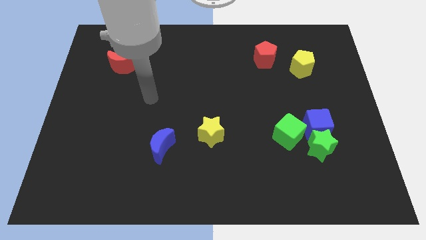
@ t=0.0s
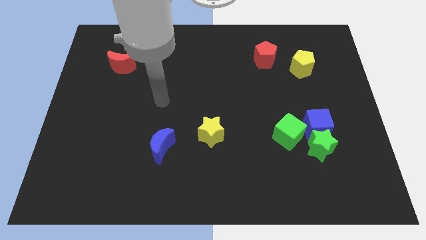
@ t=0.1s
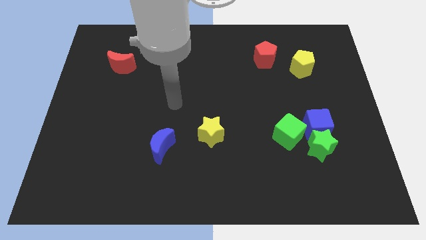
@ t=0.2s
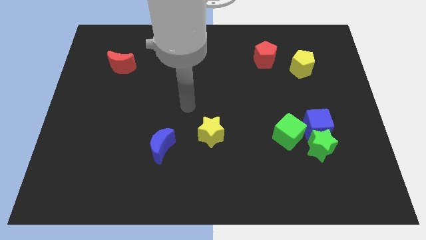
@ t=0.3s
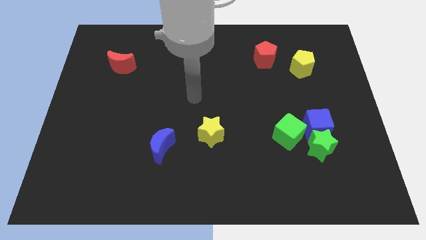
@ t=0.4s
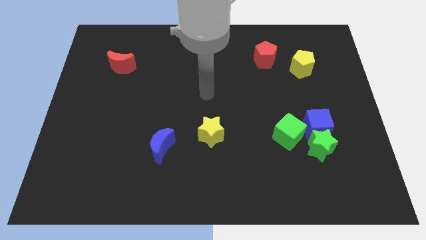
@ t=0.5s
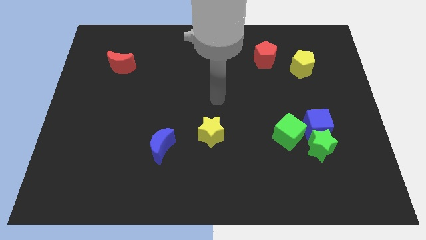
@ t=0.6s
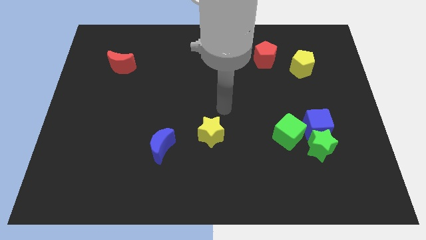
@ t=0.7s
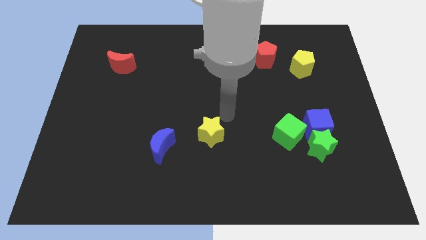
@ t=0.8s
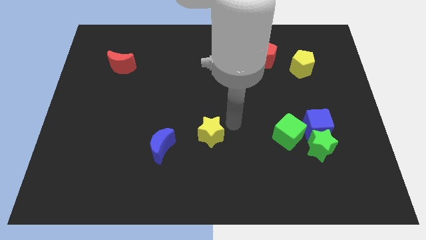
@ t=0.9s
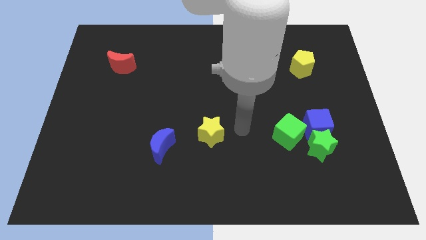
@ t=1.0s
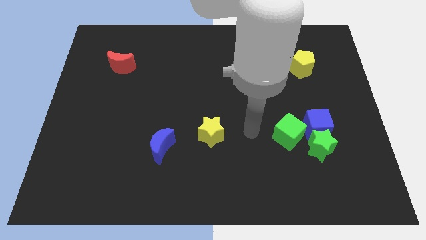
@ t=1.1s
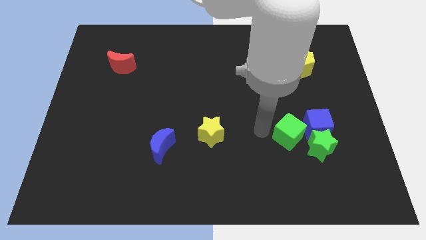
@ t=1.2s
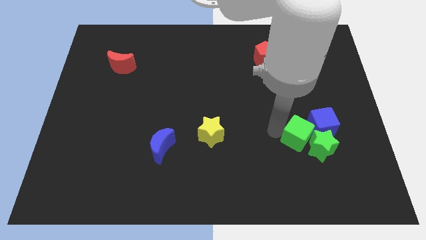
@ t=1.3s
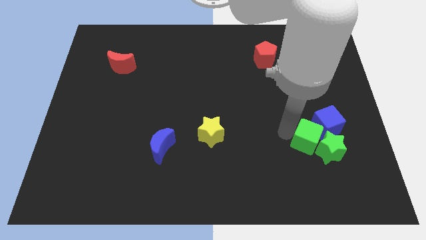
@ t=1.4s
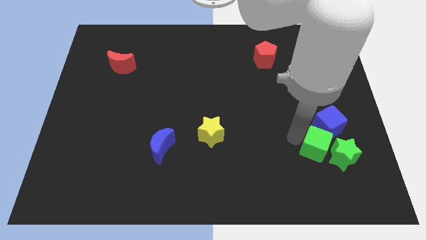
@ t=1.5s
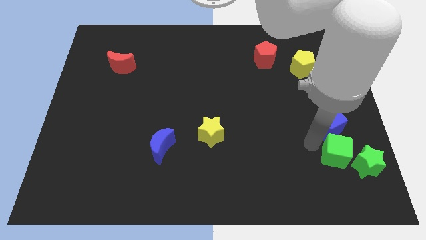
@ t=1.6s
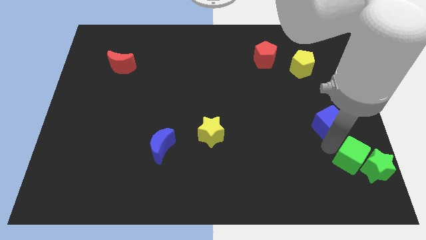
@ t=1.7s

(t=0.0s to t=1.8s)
move the blue cube away from the green star and green cube

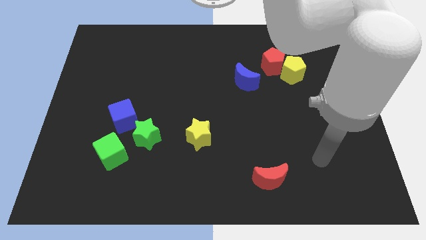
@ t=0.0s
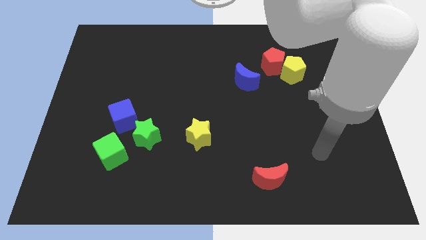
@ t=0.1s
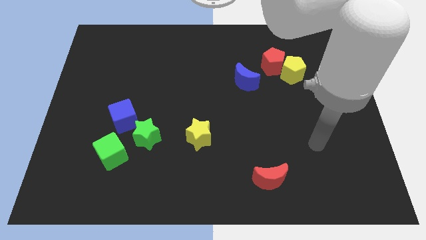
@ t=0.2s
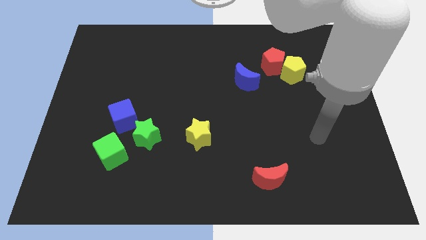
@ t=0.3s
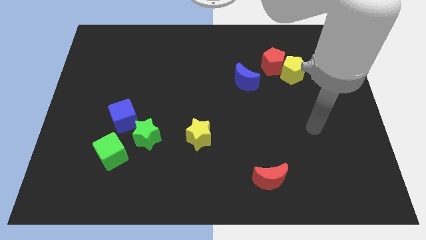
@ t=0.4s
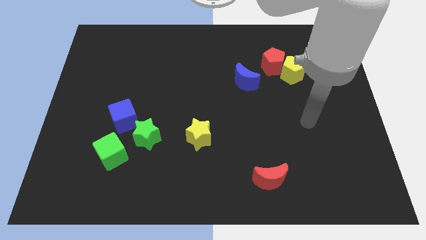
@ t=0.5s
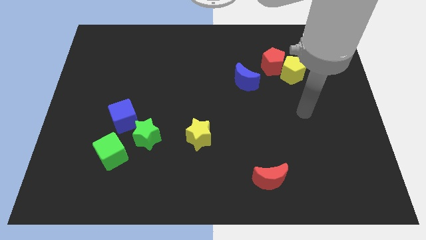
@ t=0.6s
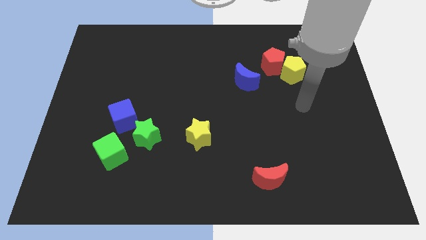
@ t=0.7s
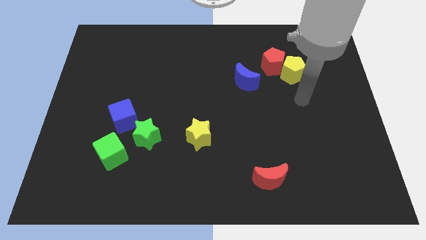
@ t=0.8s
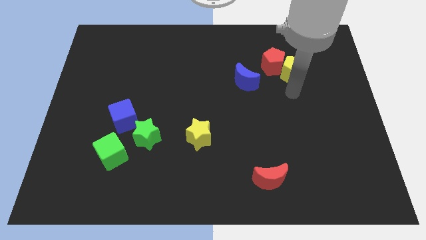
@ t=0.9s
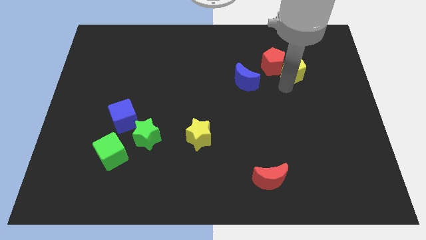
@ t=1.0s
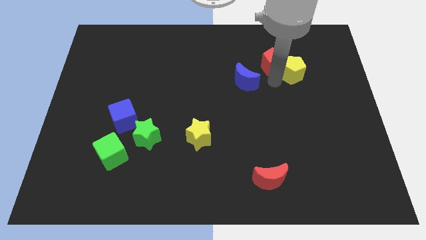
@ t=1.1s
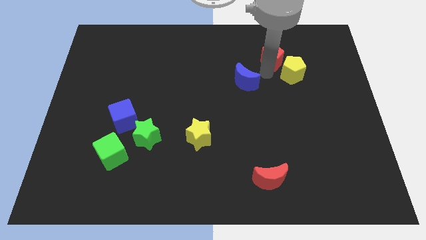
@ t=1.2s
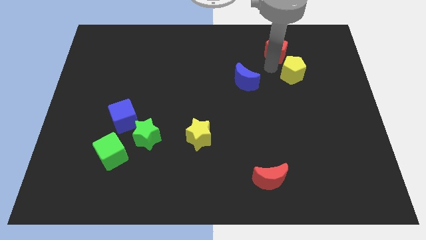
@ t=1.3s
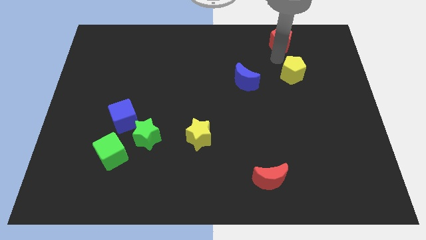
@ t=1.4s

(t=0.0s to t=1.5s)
pull the yellow pentagon apart from the red pentagon

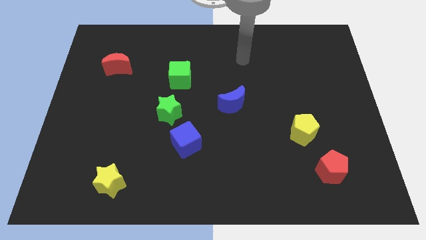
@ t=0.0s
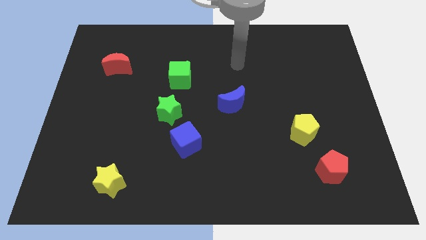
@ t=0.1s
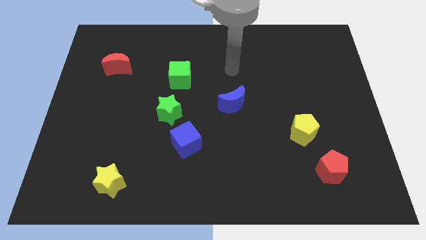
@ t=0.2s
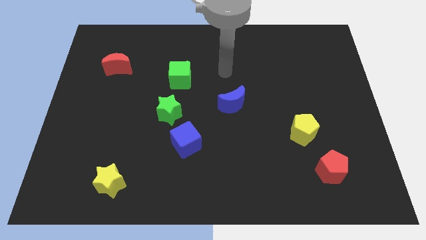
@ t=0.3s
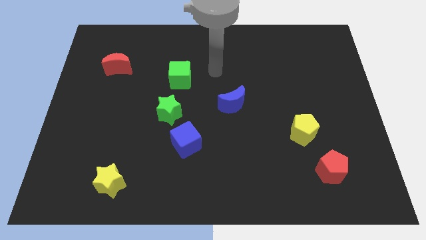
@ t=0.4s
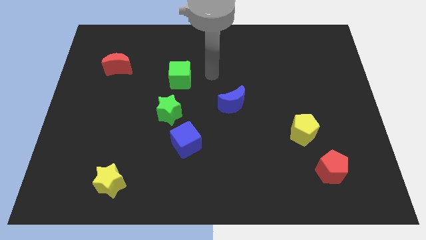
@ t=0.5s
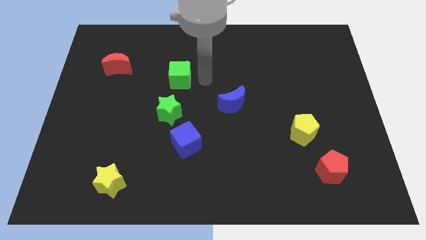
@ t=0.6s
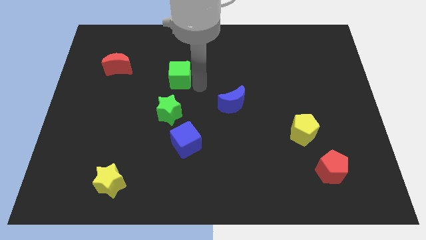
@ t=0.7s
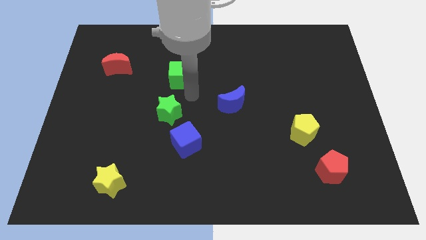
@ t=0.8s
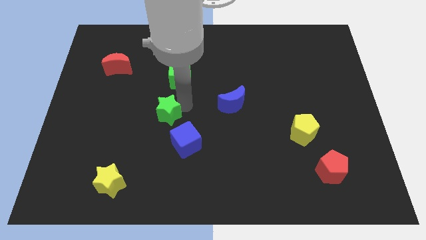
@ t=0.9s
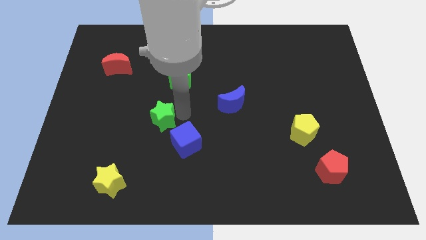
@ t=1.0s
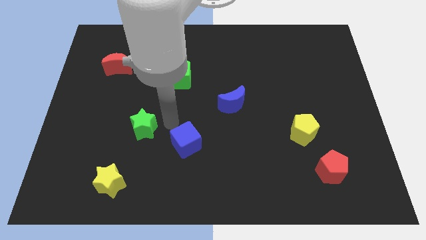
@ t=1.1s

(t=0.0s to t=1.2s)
separate the blue cube from the green star

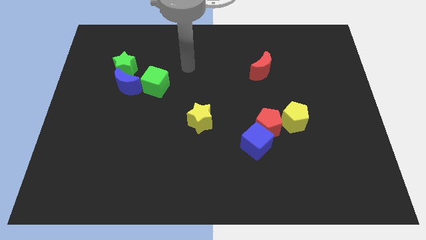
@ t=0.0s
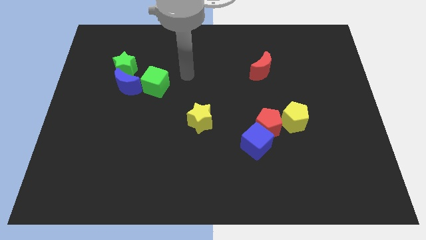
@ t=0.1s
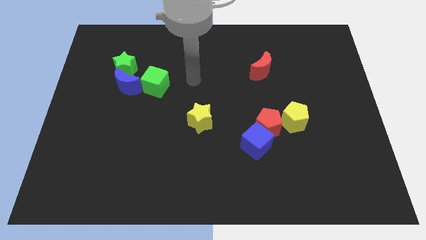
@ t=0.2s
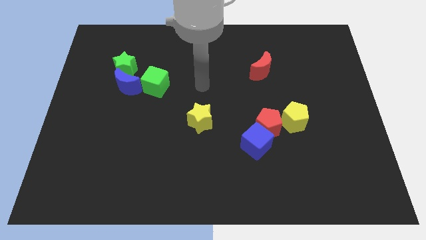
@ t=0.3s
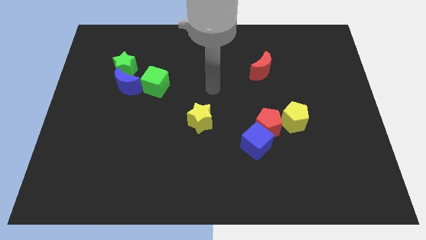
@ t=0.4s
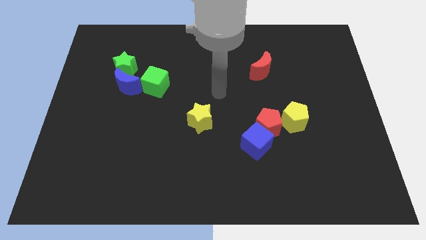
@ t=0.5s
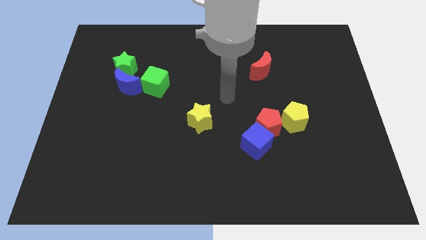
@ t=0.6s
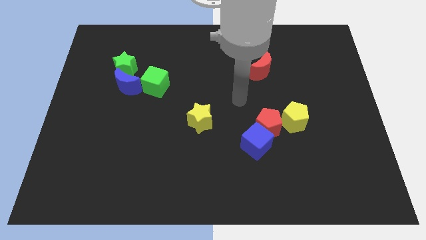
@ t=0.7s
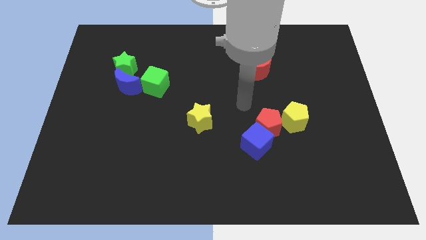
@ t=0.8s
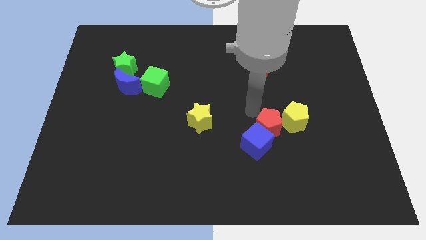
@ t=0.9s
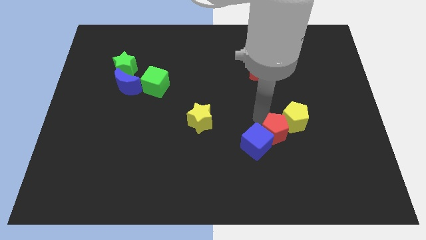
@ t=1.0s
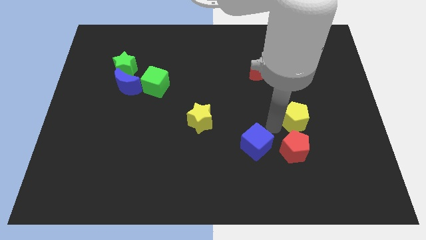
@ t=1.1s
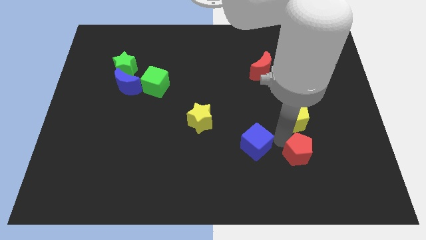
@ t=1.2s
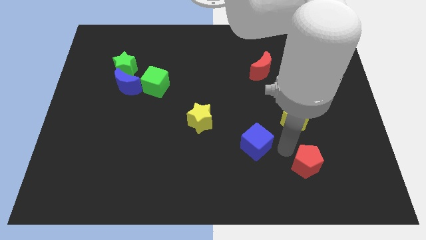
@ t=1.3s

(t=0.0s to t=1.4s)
separate the blue cube from the red pentagon

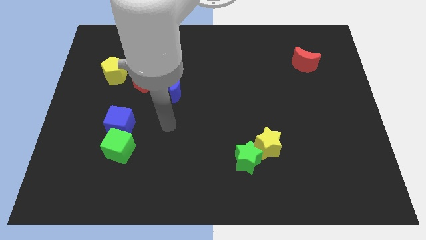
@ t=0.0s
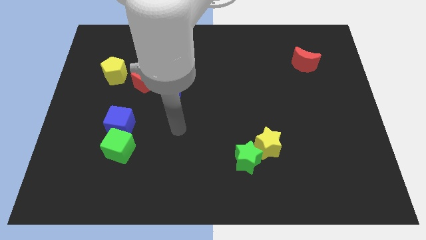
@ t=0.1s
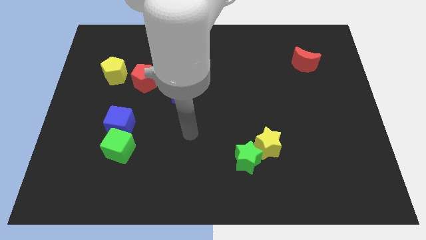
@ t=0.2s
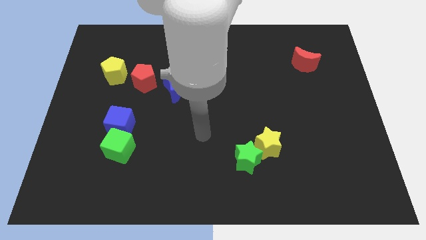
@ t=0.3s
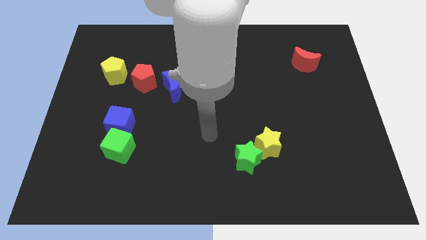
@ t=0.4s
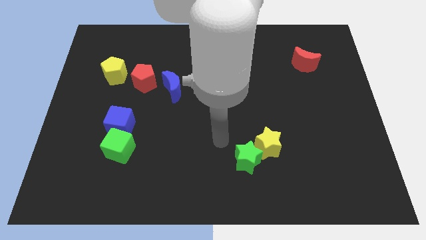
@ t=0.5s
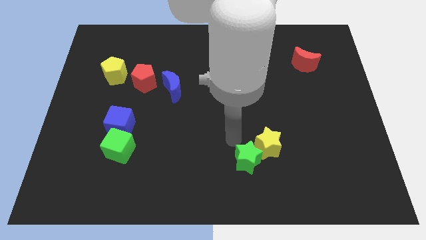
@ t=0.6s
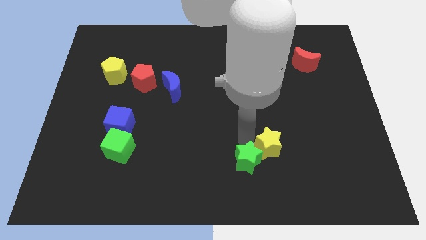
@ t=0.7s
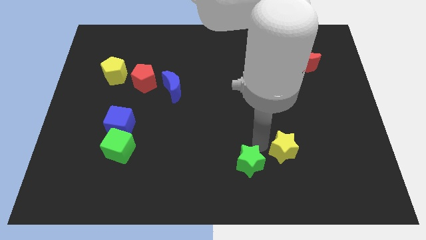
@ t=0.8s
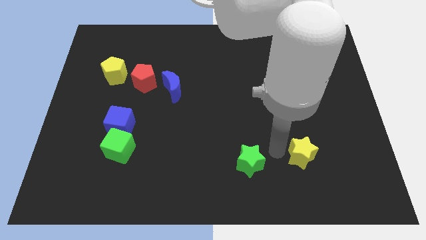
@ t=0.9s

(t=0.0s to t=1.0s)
separate the green star from the yellow star

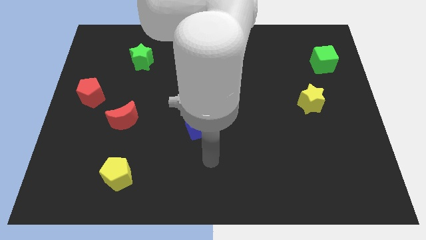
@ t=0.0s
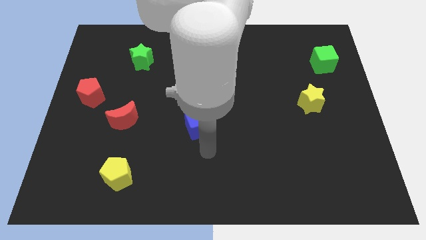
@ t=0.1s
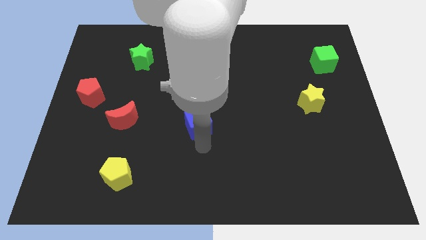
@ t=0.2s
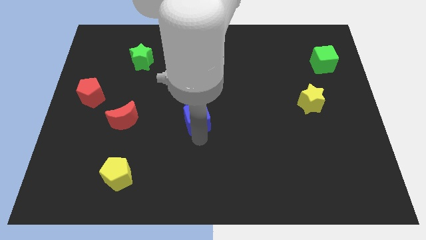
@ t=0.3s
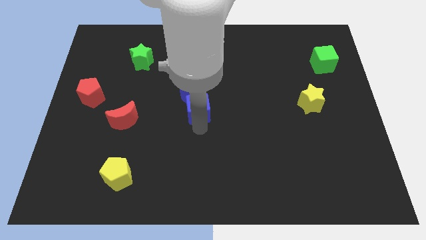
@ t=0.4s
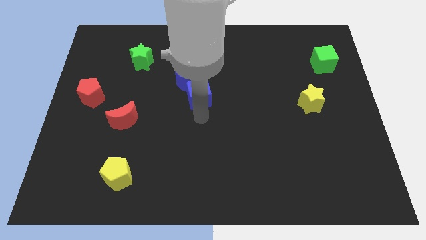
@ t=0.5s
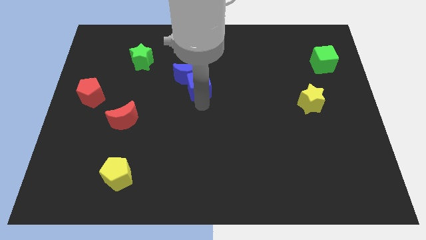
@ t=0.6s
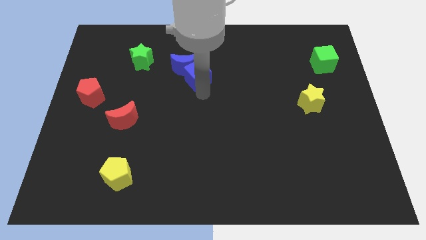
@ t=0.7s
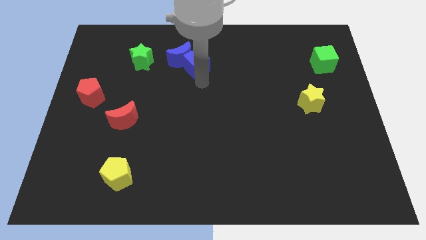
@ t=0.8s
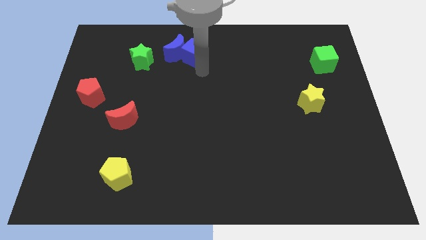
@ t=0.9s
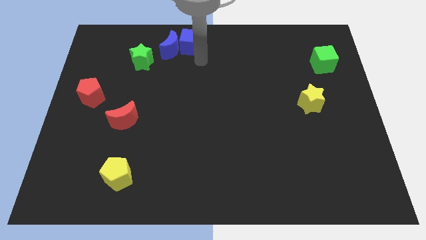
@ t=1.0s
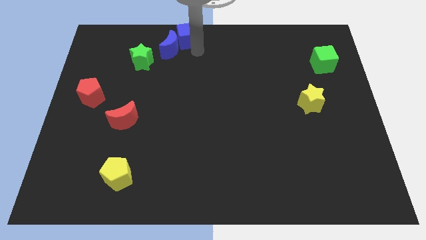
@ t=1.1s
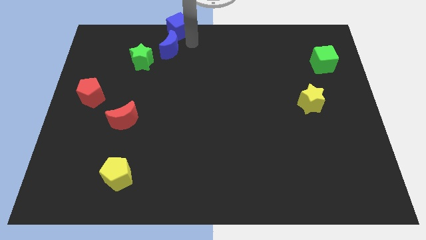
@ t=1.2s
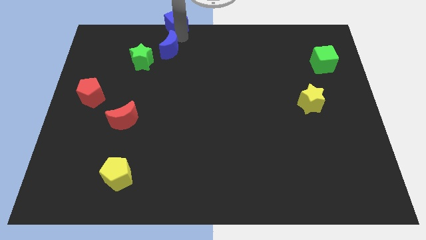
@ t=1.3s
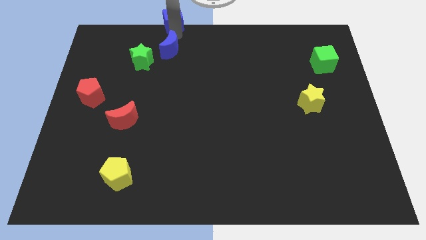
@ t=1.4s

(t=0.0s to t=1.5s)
pull the blue moon apart from the blue cube

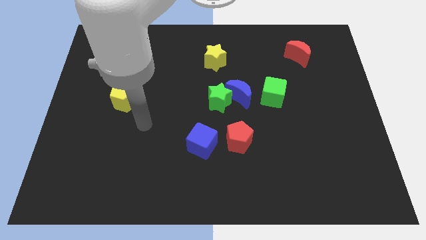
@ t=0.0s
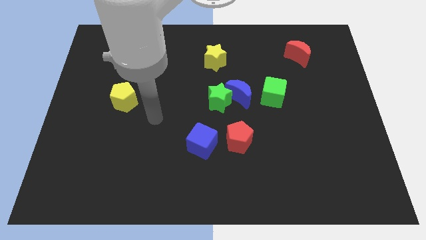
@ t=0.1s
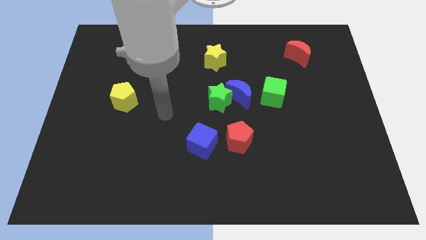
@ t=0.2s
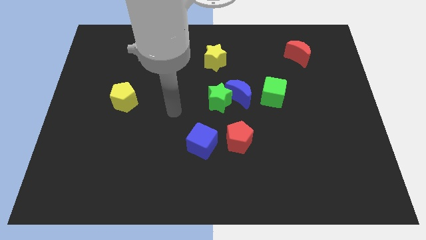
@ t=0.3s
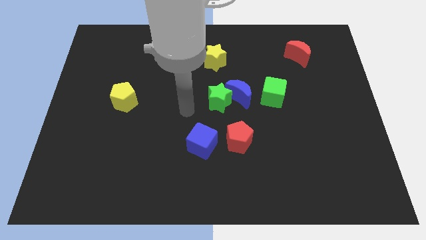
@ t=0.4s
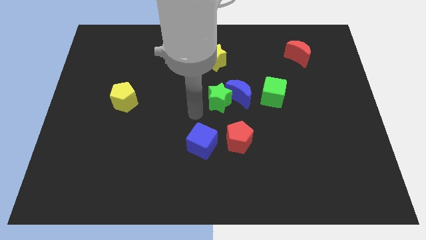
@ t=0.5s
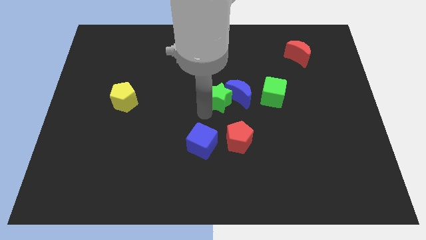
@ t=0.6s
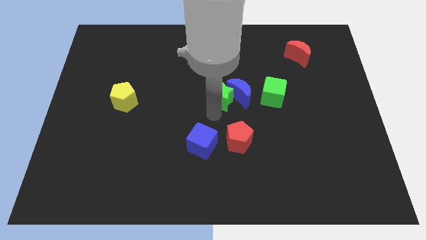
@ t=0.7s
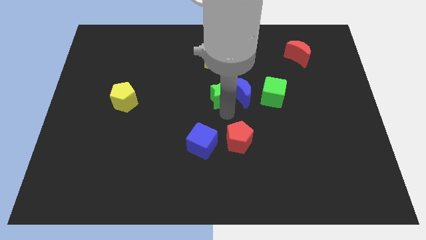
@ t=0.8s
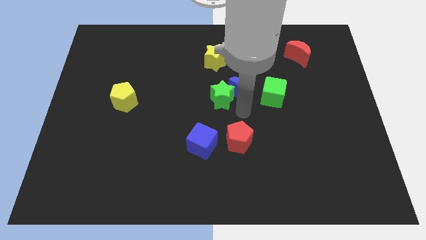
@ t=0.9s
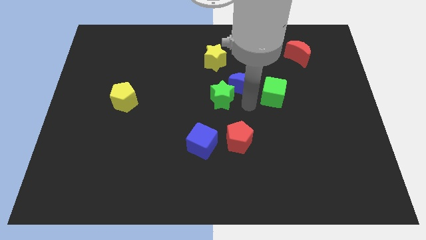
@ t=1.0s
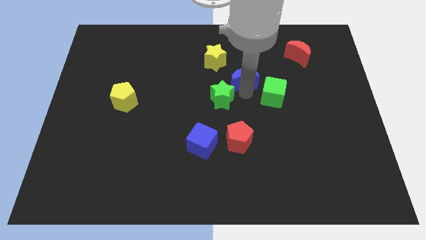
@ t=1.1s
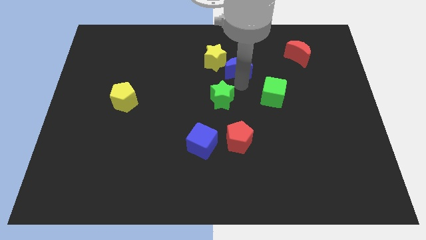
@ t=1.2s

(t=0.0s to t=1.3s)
move the green star away from the blue moon
